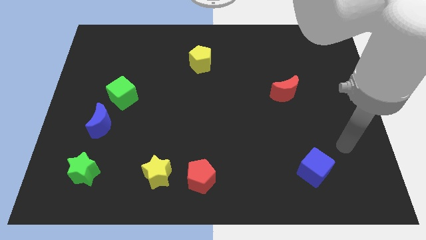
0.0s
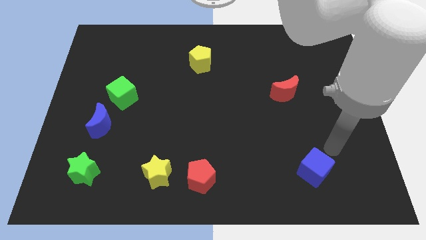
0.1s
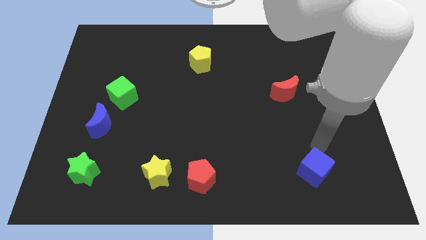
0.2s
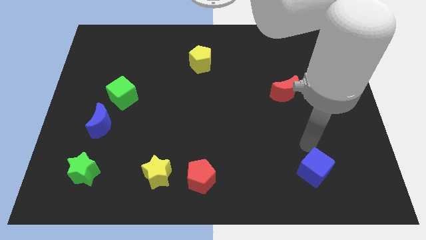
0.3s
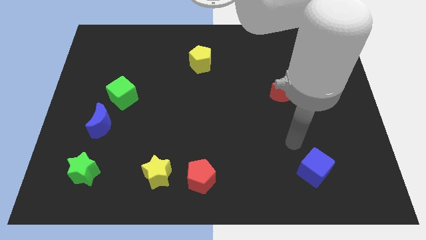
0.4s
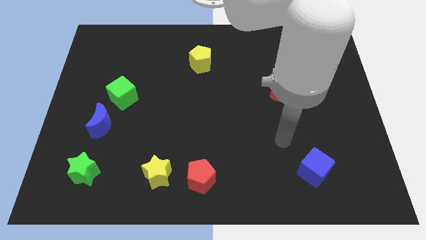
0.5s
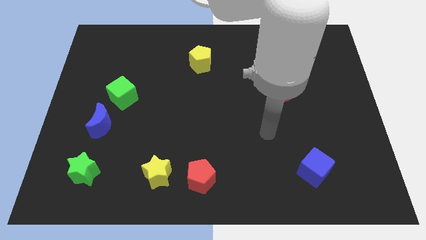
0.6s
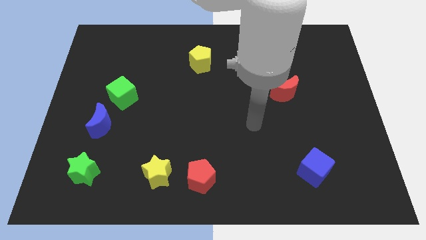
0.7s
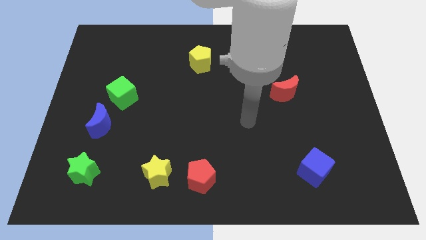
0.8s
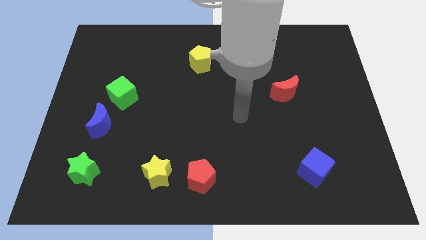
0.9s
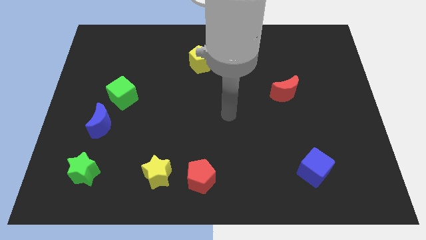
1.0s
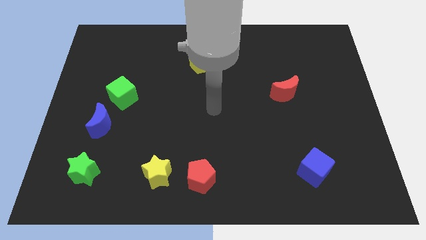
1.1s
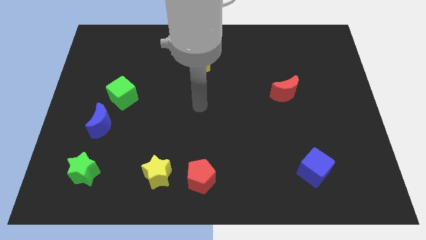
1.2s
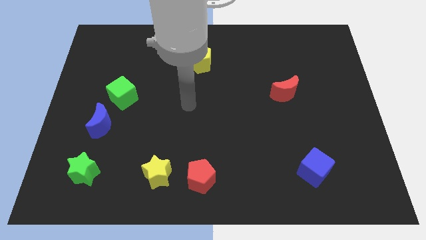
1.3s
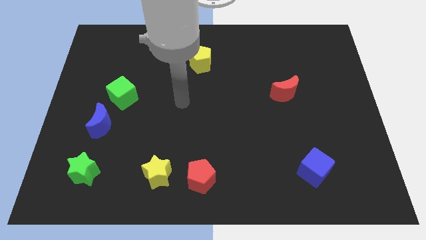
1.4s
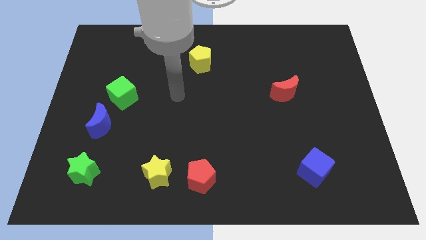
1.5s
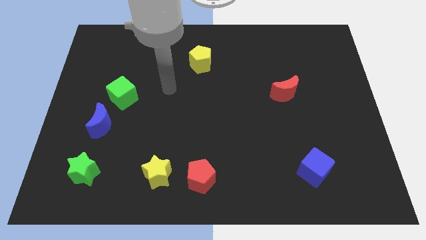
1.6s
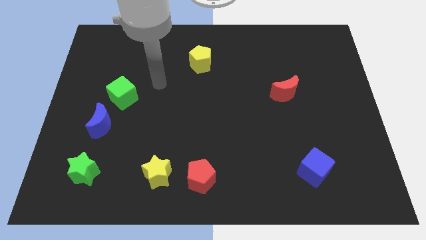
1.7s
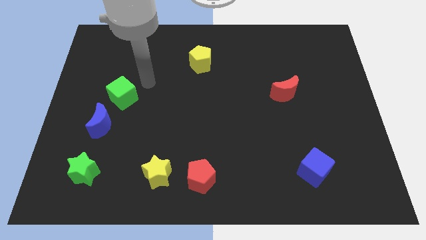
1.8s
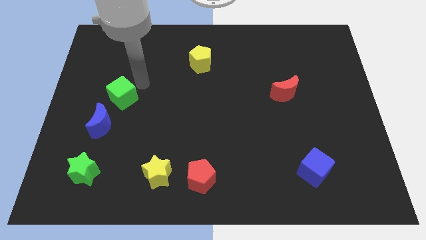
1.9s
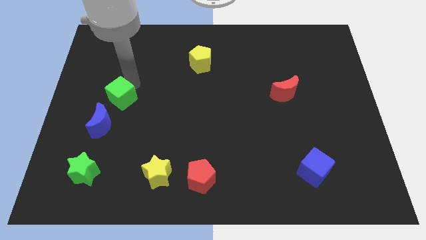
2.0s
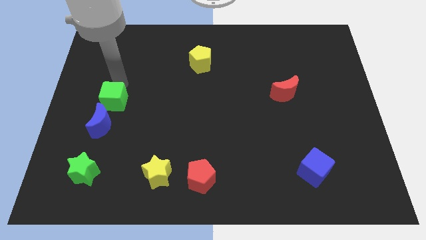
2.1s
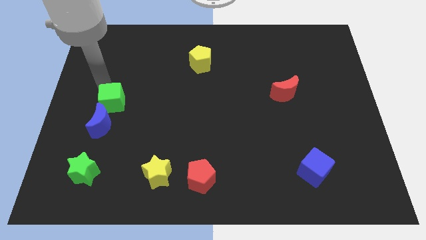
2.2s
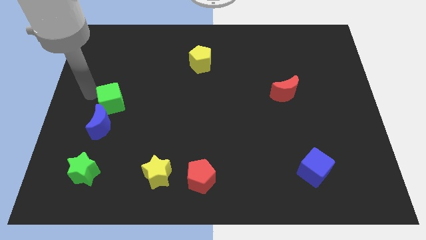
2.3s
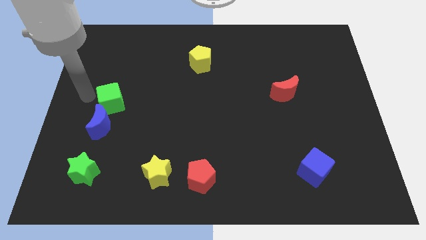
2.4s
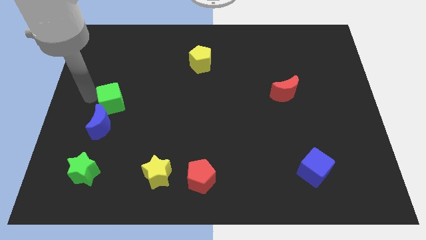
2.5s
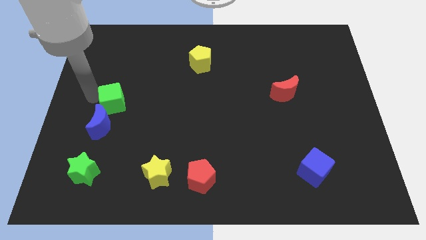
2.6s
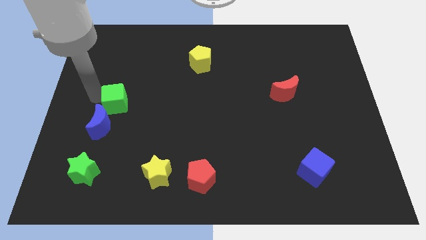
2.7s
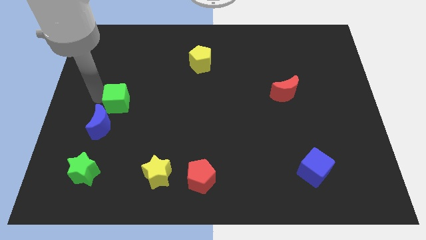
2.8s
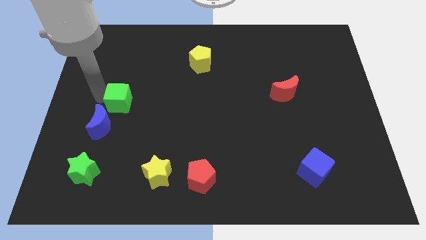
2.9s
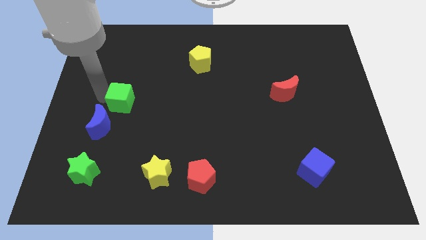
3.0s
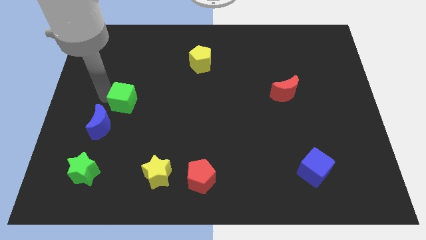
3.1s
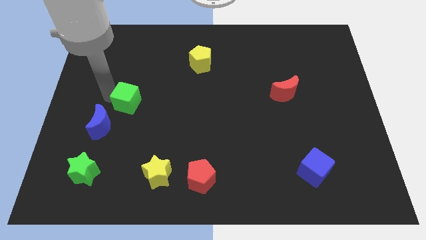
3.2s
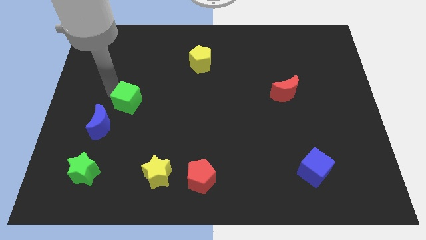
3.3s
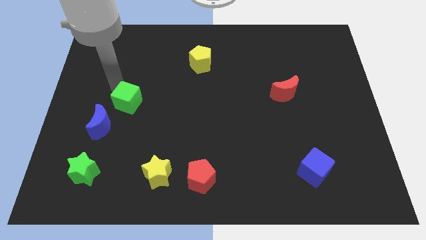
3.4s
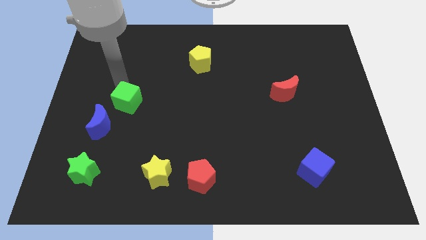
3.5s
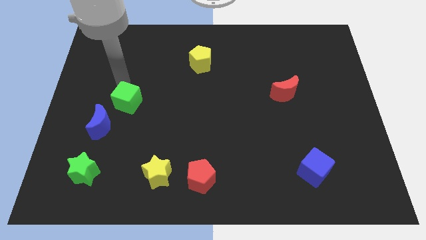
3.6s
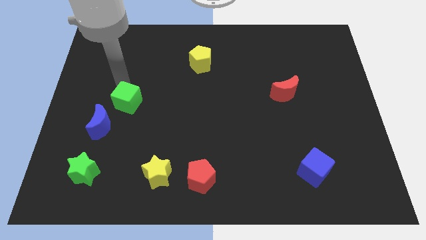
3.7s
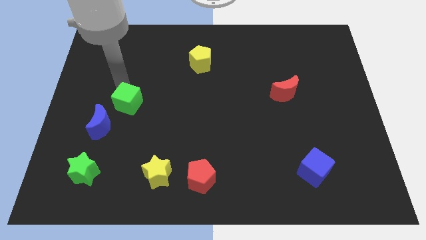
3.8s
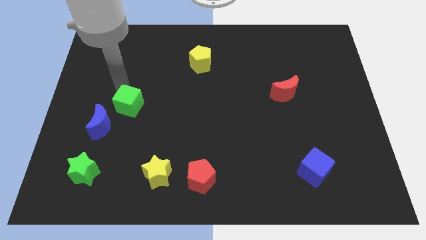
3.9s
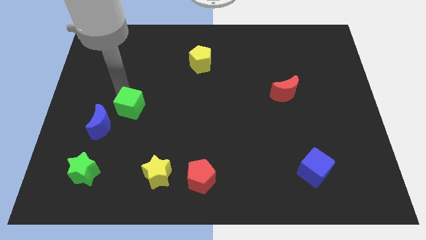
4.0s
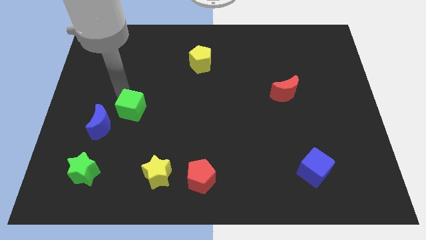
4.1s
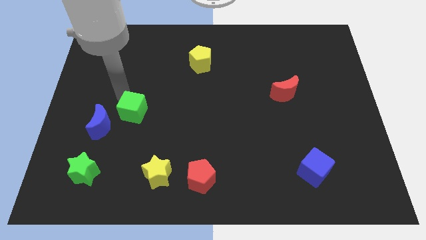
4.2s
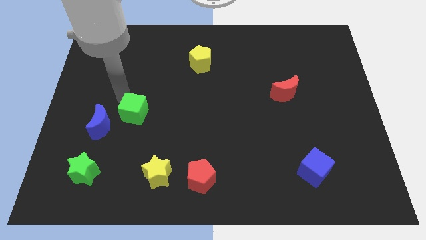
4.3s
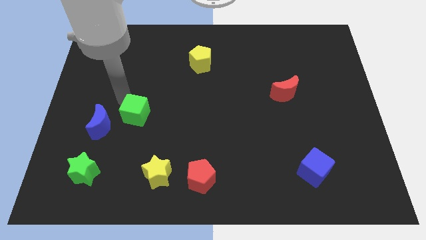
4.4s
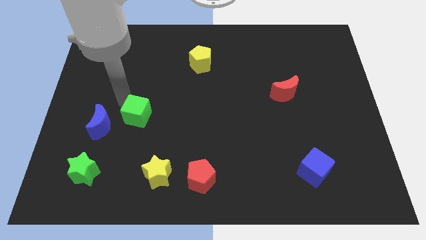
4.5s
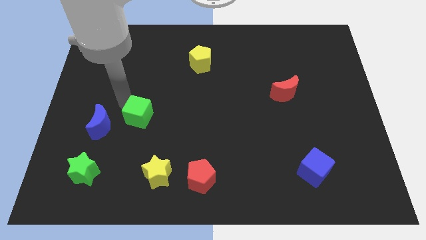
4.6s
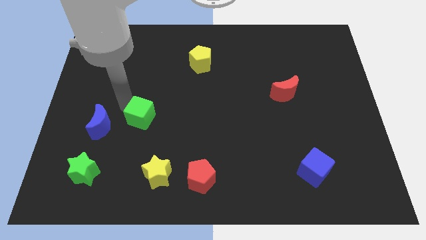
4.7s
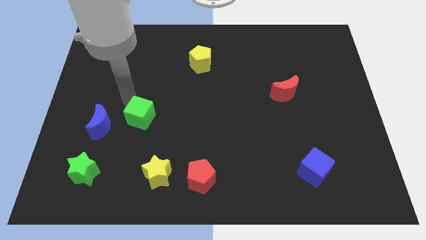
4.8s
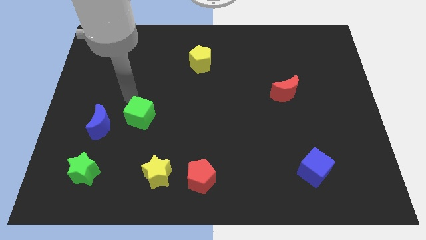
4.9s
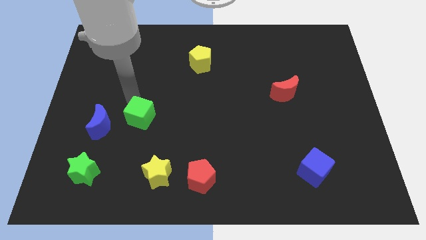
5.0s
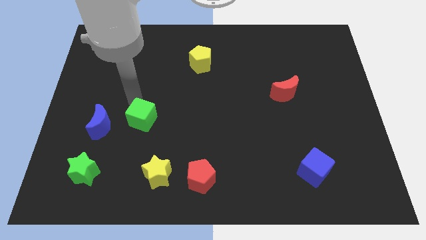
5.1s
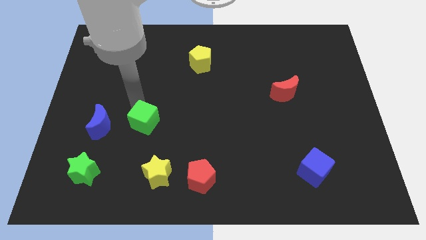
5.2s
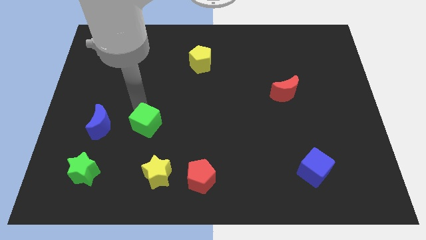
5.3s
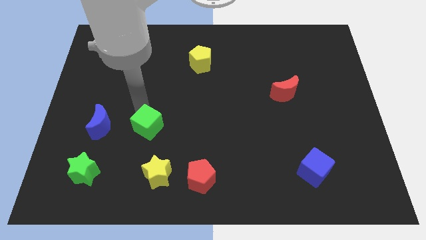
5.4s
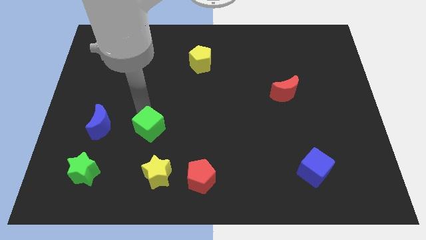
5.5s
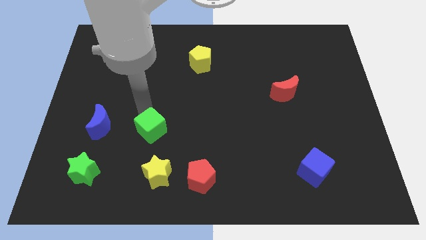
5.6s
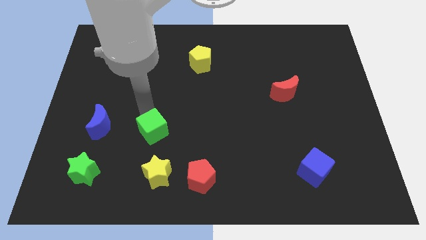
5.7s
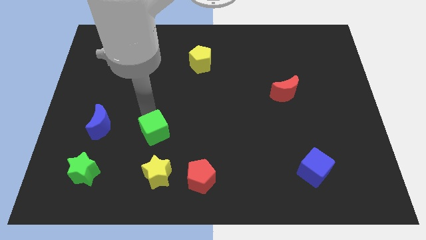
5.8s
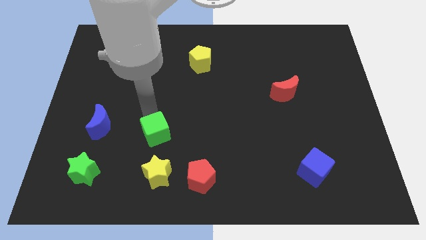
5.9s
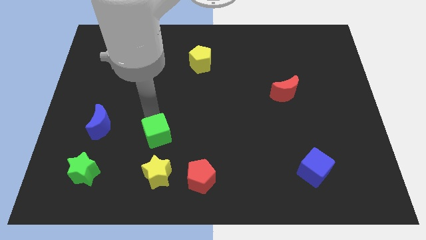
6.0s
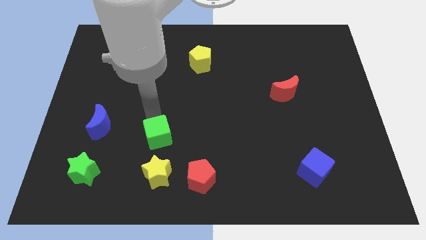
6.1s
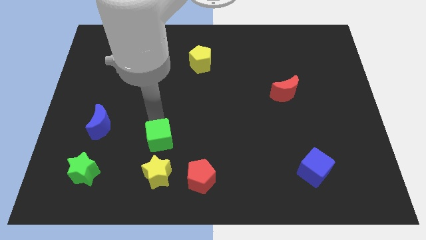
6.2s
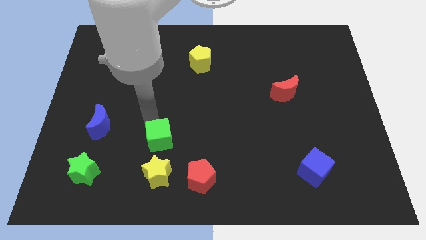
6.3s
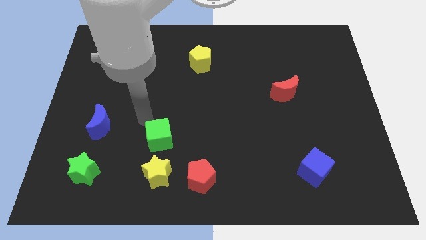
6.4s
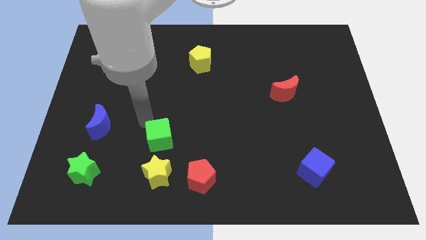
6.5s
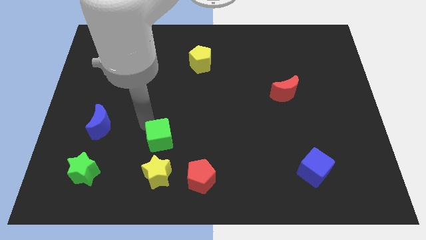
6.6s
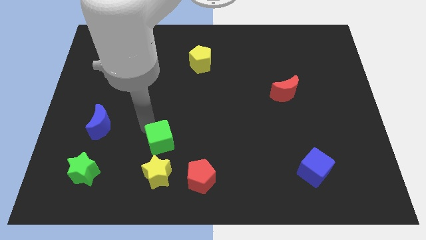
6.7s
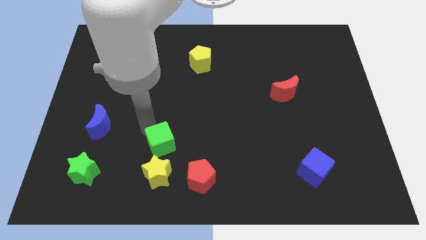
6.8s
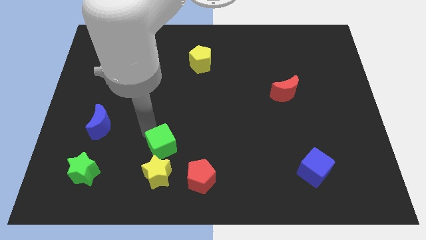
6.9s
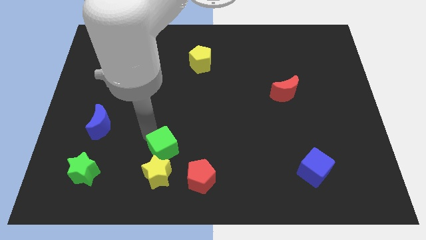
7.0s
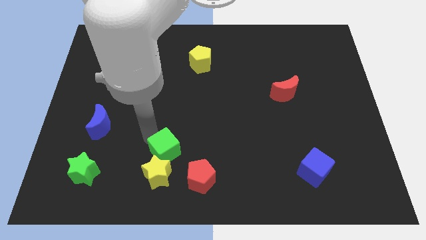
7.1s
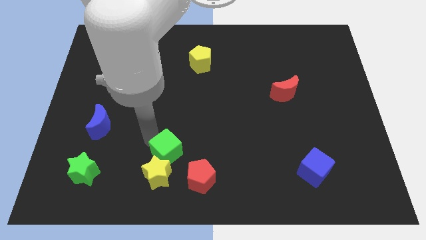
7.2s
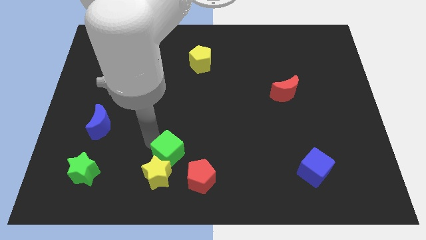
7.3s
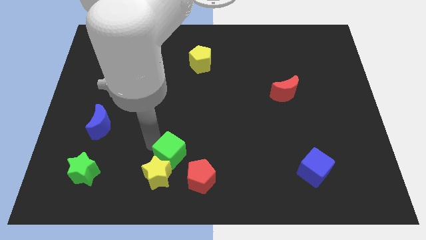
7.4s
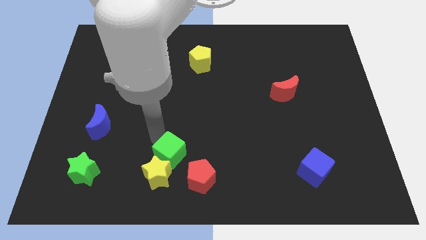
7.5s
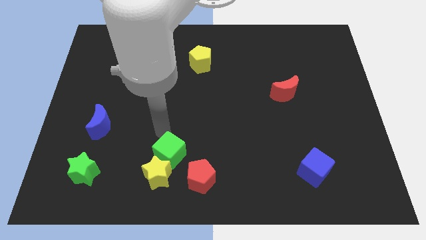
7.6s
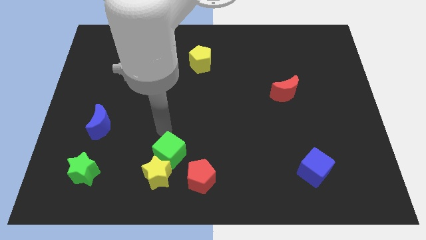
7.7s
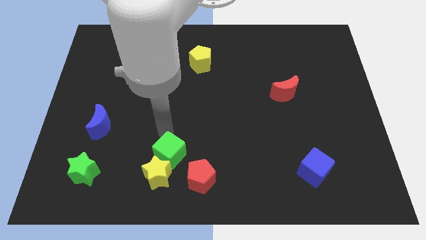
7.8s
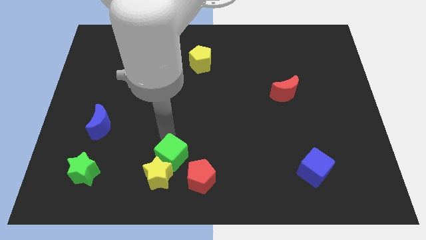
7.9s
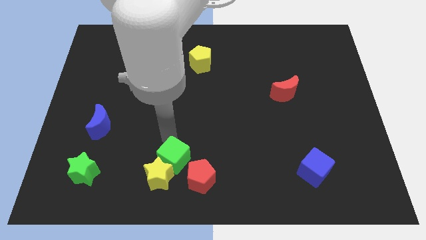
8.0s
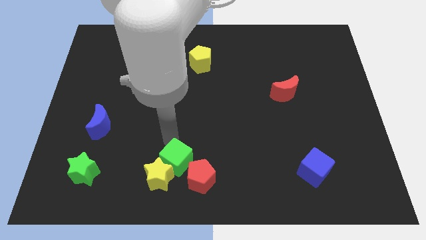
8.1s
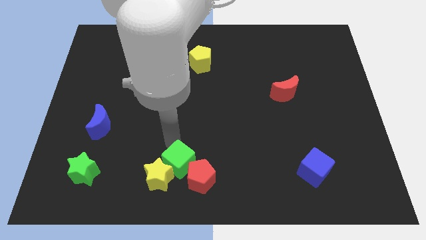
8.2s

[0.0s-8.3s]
push the green cube to the bottom

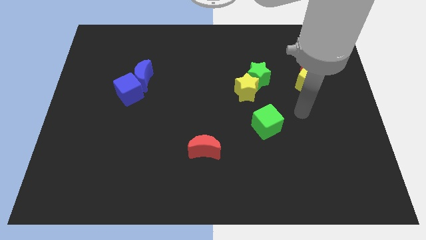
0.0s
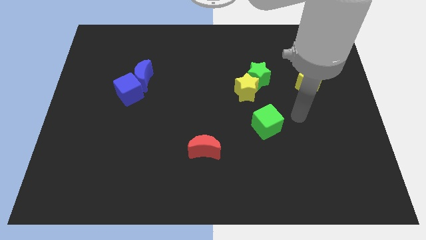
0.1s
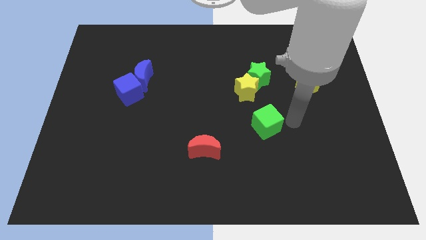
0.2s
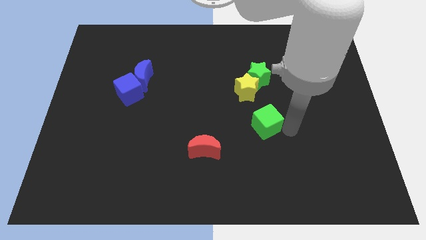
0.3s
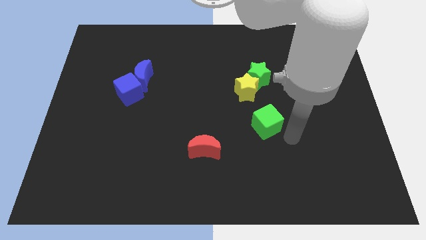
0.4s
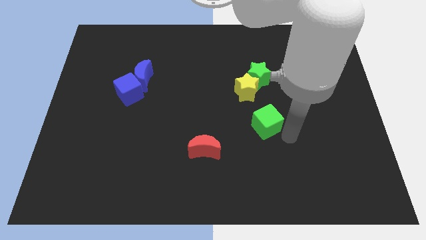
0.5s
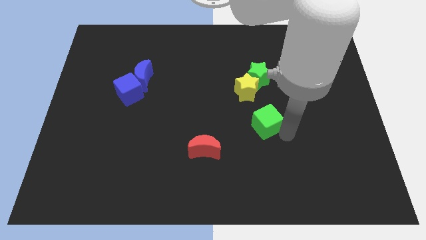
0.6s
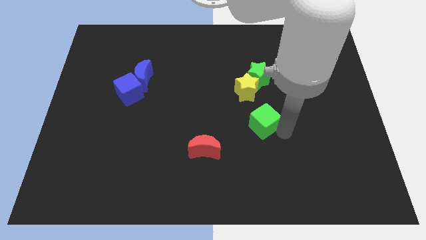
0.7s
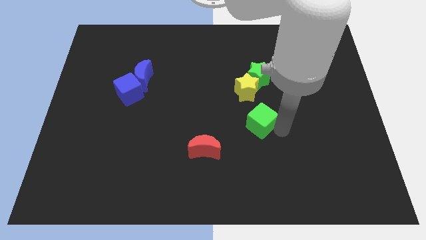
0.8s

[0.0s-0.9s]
move the green cube to the center of the board
